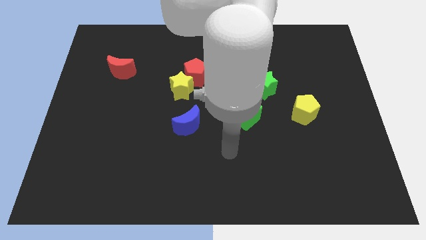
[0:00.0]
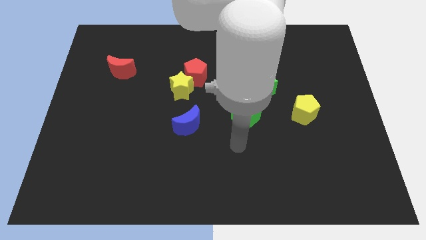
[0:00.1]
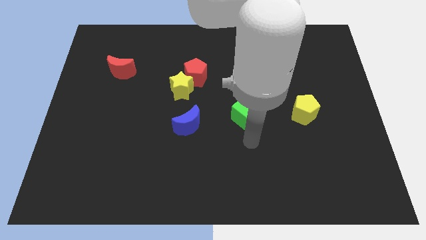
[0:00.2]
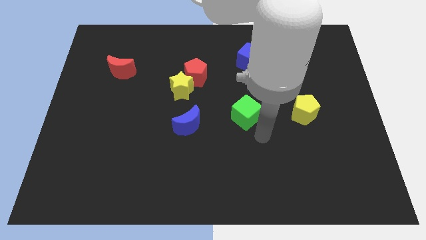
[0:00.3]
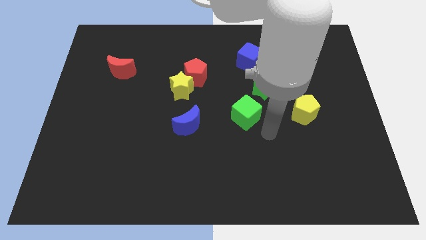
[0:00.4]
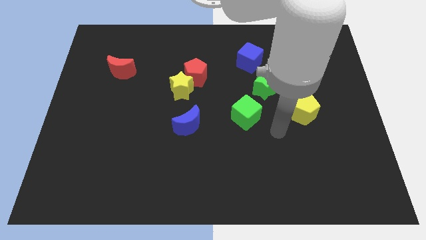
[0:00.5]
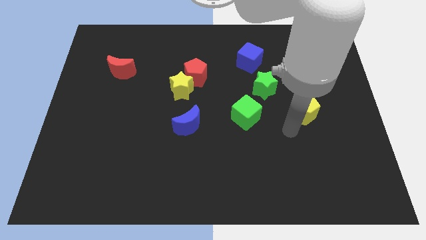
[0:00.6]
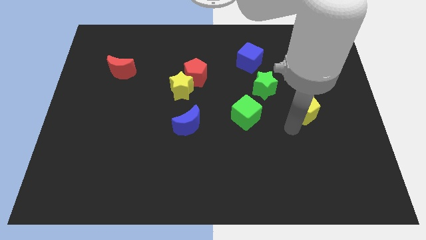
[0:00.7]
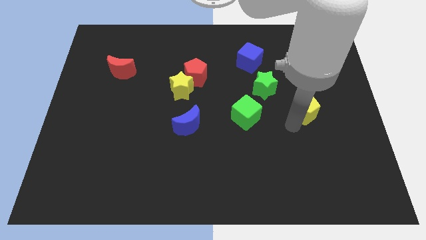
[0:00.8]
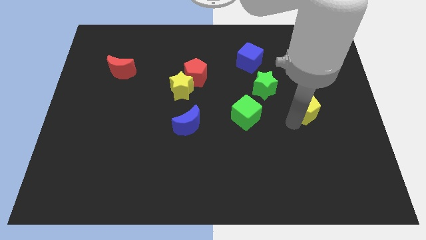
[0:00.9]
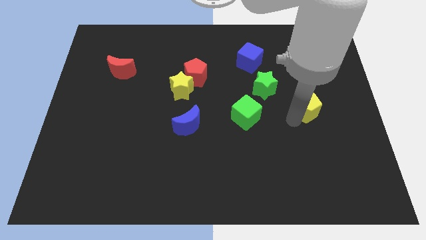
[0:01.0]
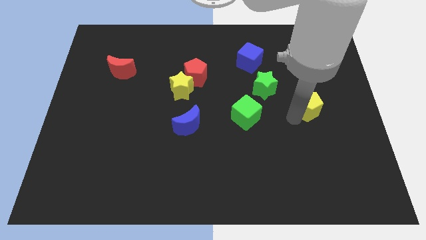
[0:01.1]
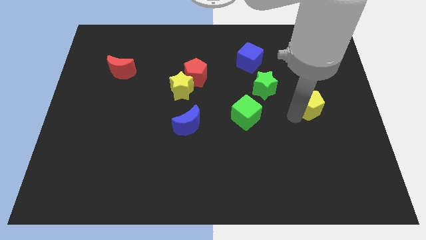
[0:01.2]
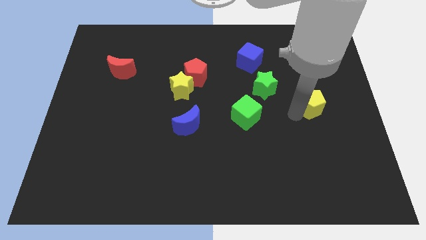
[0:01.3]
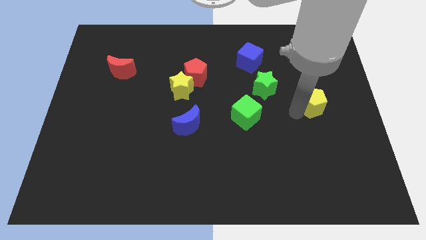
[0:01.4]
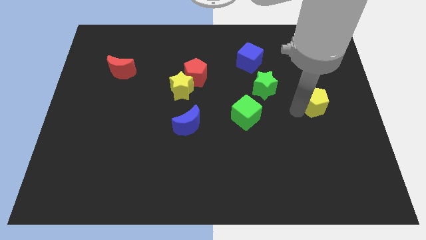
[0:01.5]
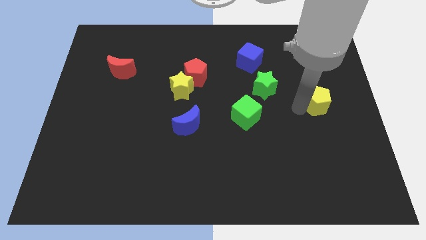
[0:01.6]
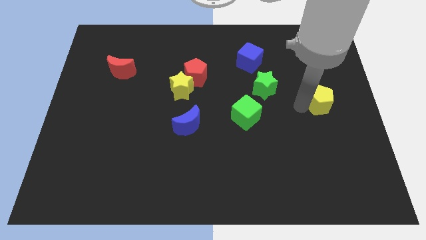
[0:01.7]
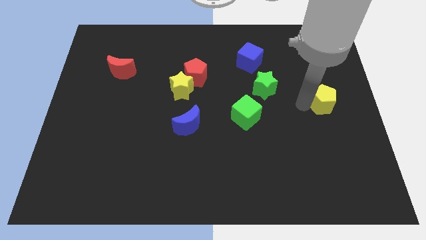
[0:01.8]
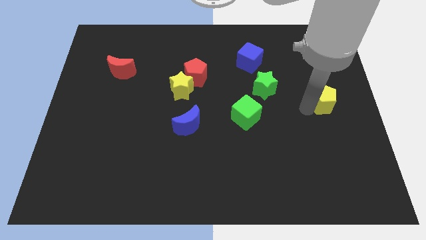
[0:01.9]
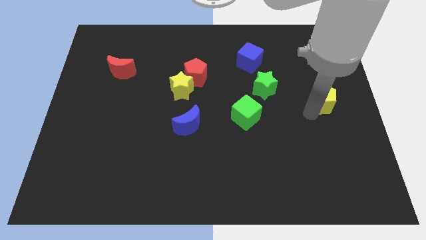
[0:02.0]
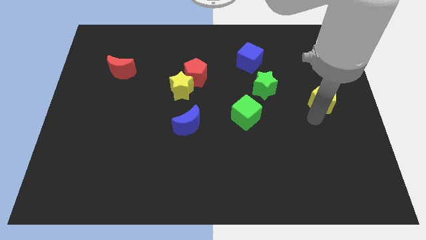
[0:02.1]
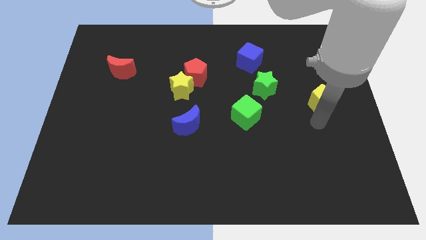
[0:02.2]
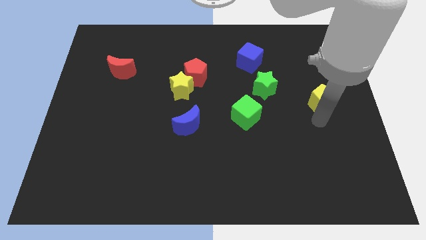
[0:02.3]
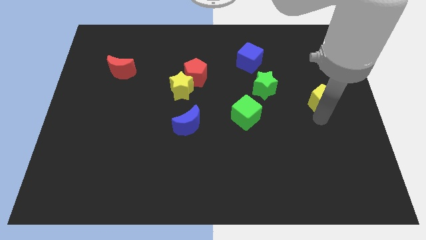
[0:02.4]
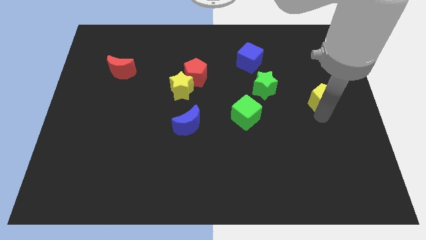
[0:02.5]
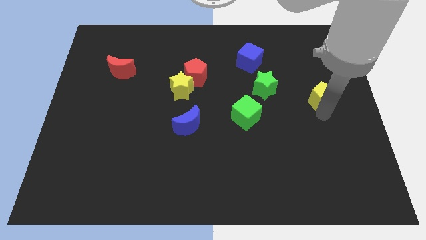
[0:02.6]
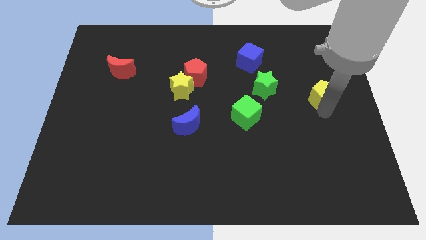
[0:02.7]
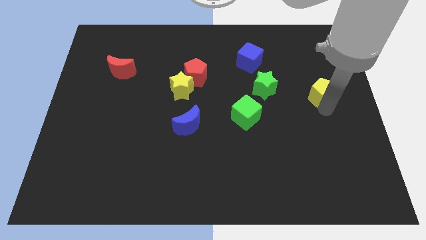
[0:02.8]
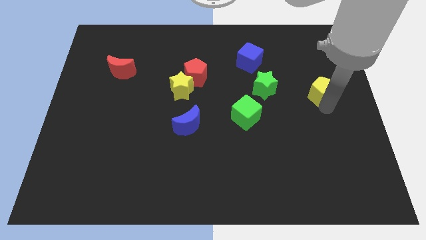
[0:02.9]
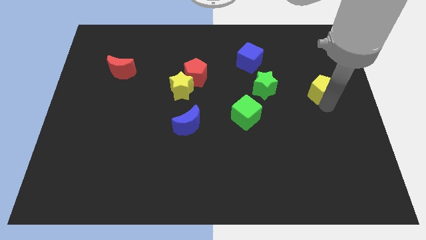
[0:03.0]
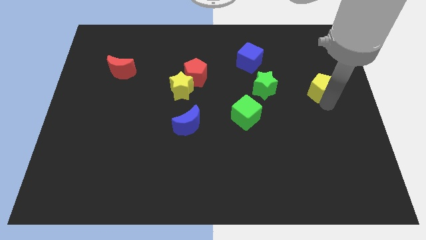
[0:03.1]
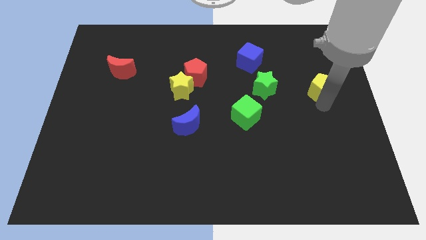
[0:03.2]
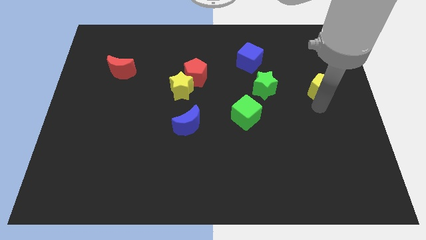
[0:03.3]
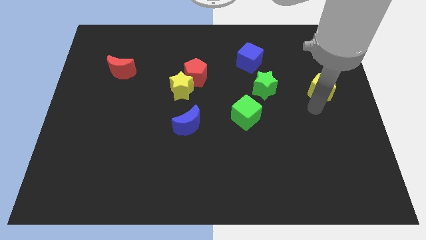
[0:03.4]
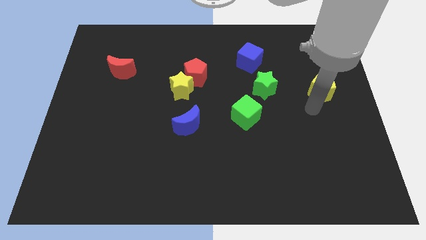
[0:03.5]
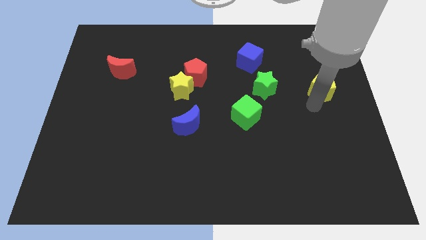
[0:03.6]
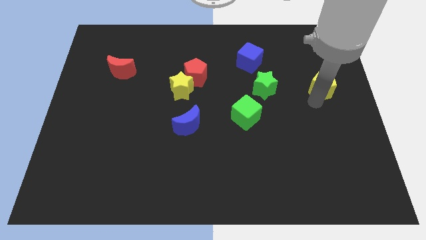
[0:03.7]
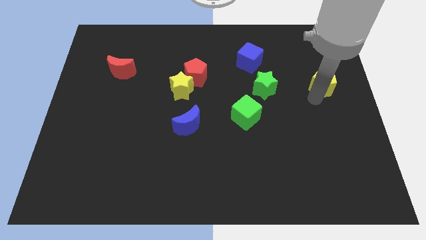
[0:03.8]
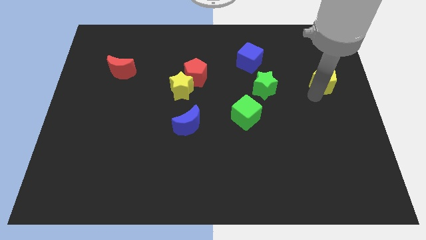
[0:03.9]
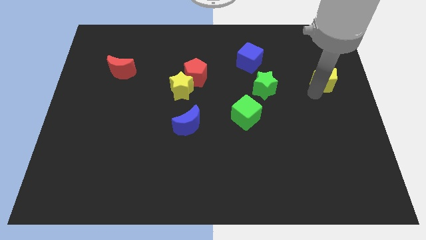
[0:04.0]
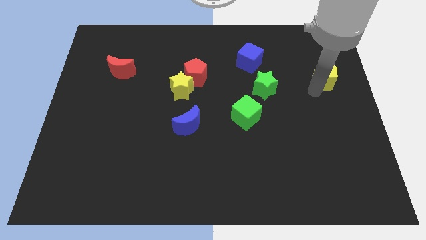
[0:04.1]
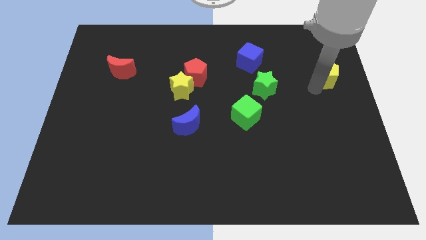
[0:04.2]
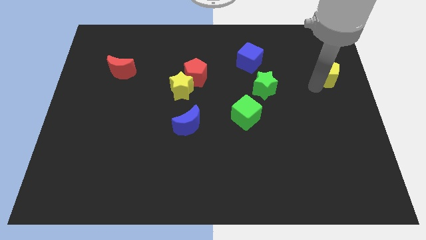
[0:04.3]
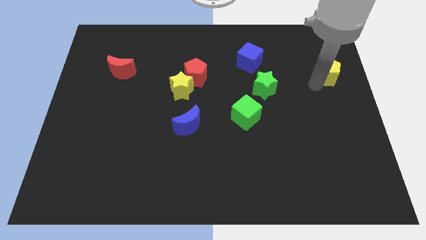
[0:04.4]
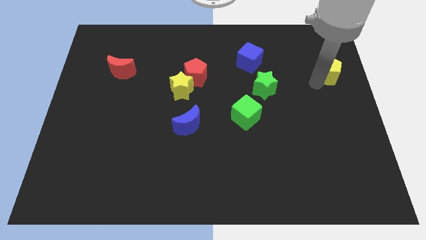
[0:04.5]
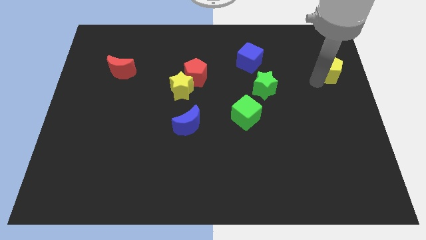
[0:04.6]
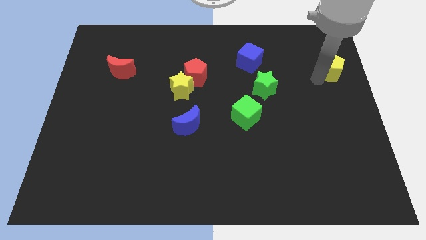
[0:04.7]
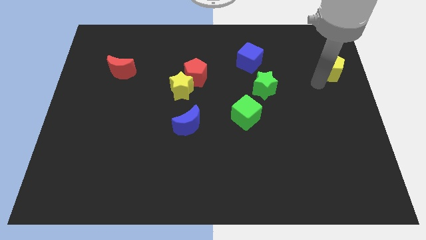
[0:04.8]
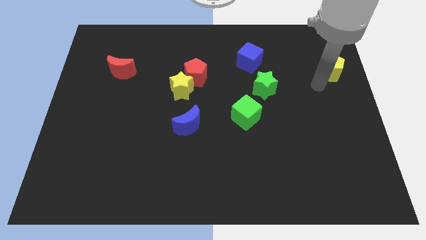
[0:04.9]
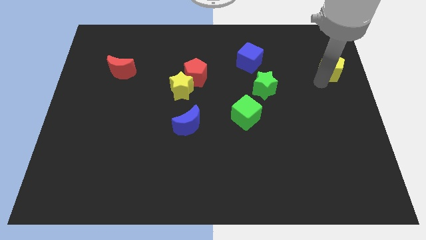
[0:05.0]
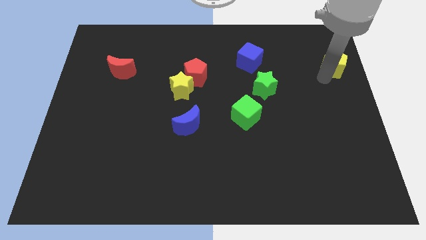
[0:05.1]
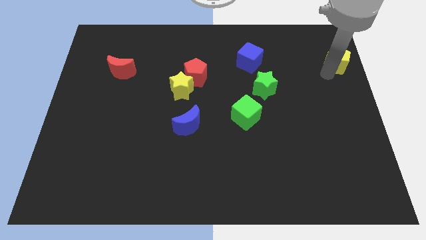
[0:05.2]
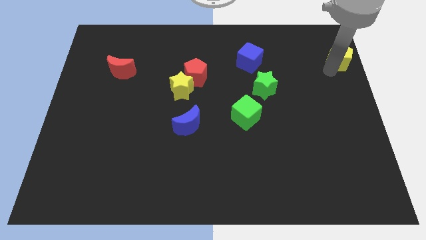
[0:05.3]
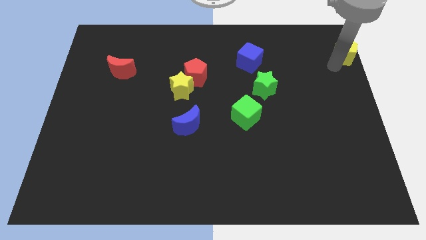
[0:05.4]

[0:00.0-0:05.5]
slide the yellow pentagon to the top right of the board

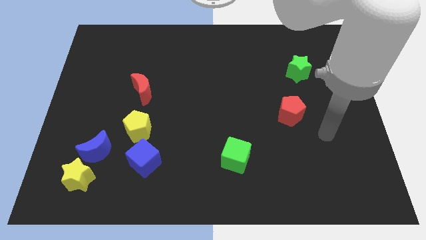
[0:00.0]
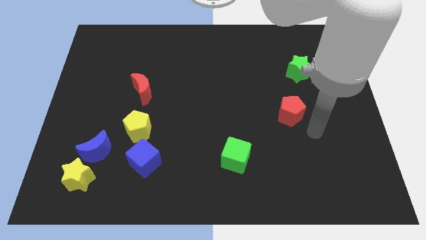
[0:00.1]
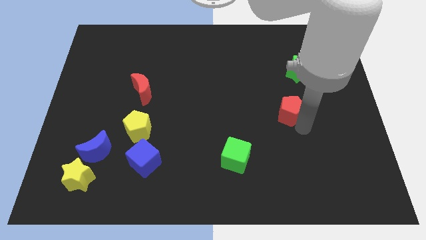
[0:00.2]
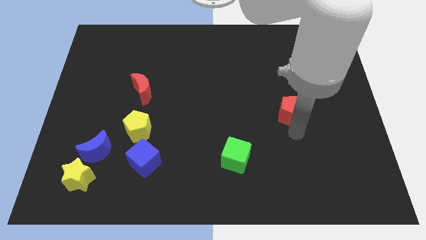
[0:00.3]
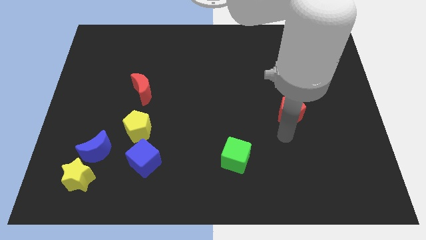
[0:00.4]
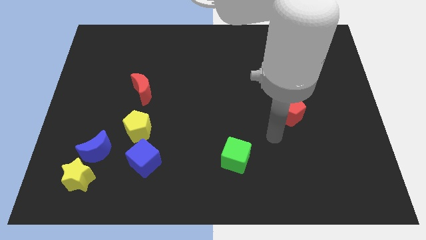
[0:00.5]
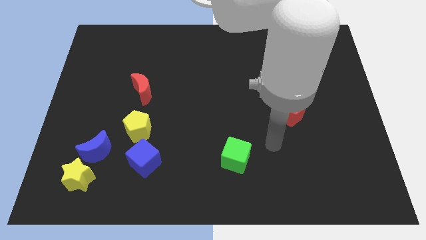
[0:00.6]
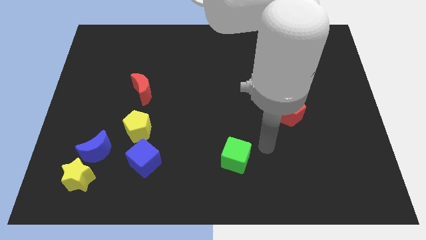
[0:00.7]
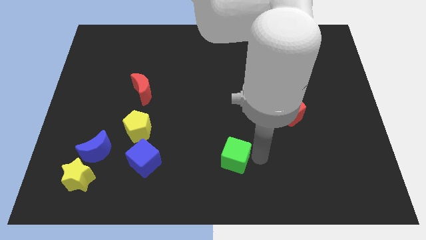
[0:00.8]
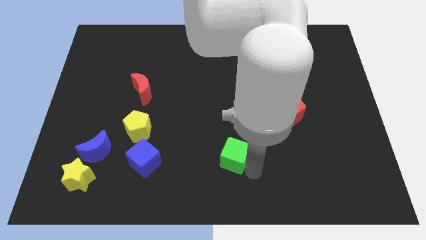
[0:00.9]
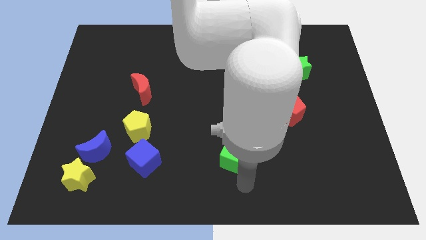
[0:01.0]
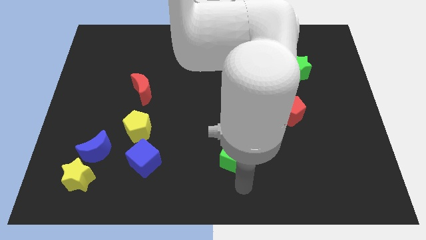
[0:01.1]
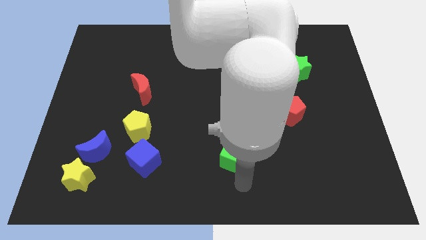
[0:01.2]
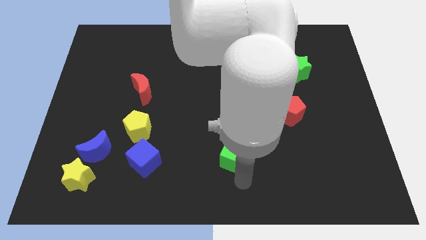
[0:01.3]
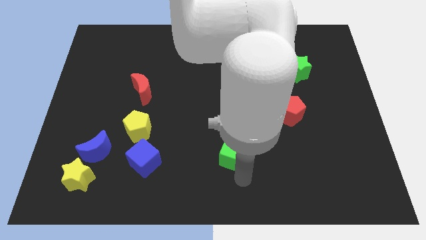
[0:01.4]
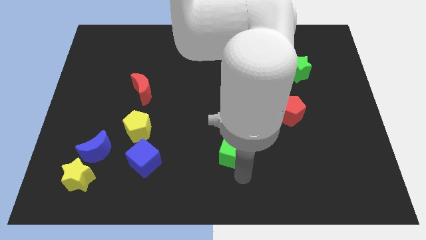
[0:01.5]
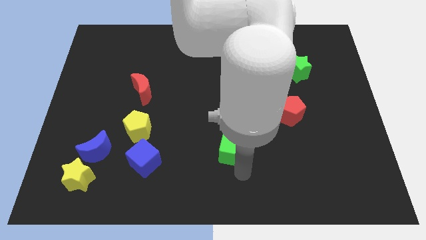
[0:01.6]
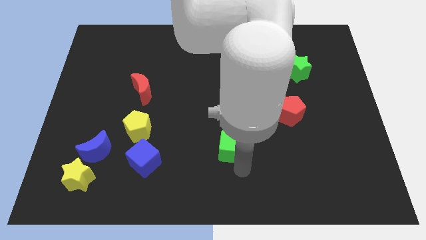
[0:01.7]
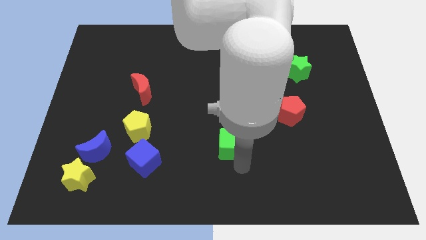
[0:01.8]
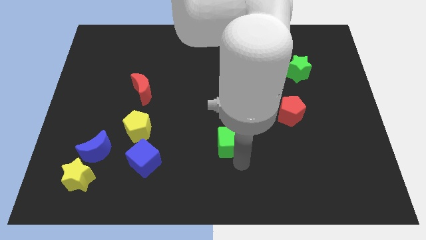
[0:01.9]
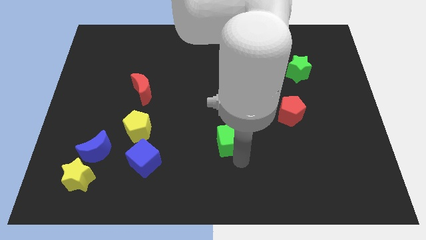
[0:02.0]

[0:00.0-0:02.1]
push the green cube to the middle of the board
